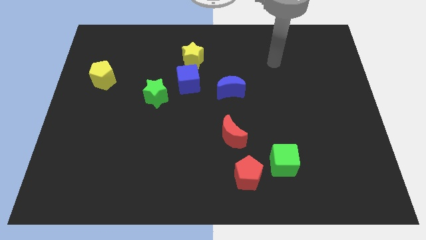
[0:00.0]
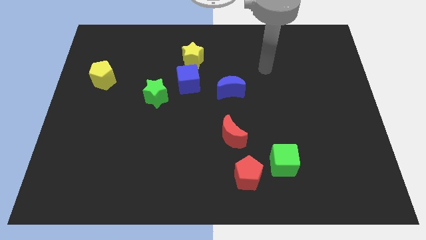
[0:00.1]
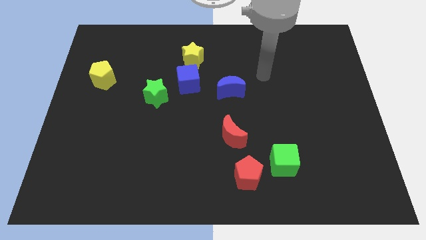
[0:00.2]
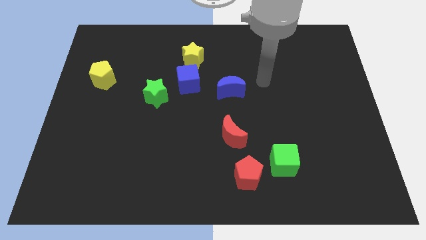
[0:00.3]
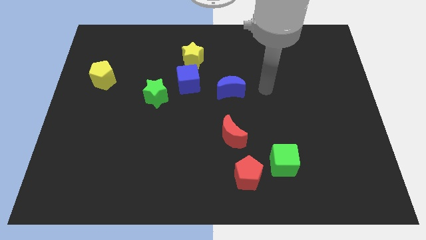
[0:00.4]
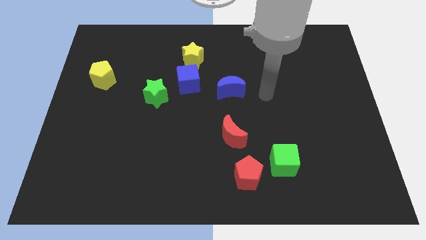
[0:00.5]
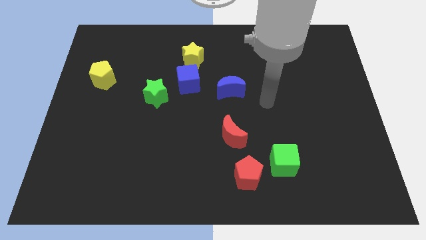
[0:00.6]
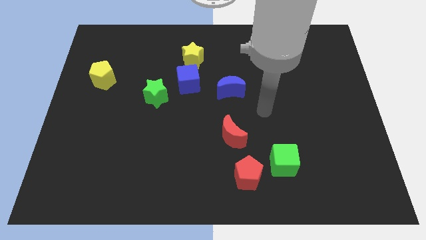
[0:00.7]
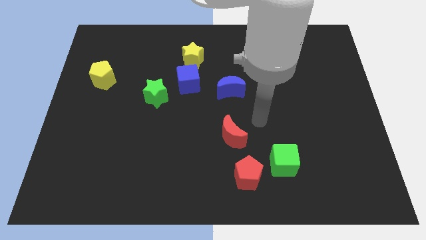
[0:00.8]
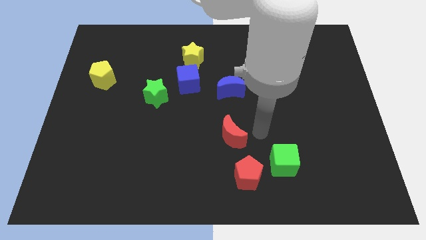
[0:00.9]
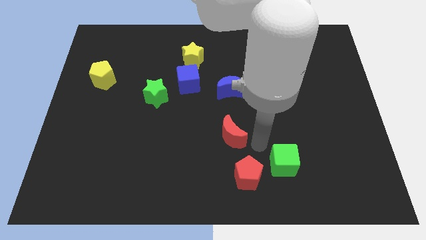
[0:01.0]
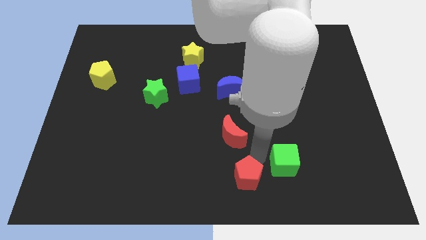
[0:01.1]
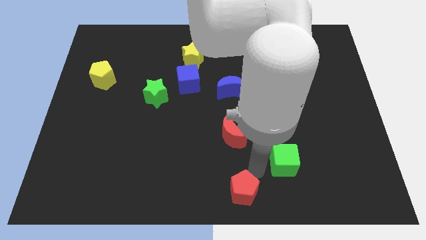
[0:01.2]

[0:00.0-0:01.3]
separate the green cube from the red pentagon

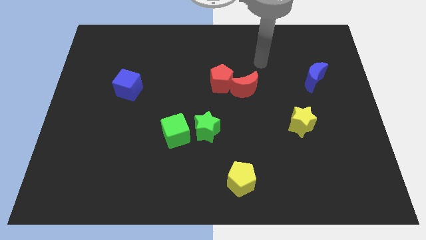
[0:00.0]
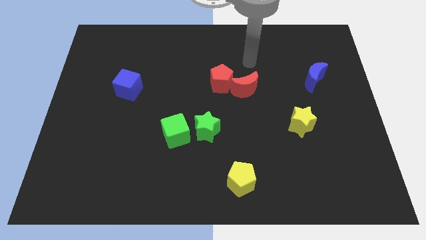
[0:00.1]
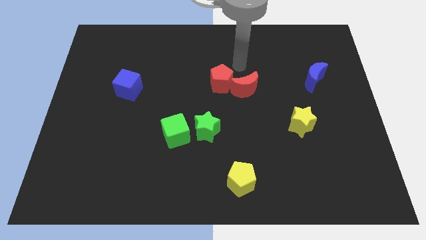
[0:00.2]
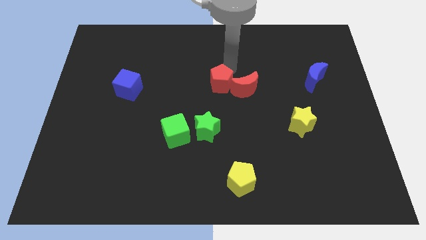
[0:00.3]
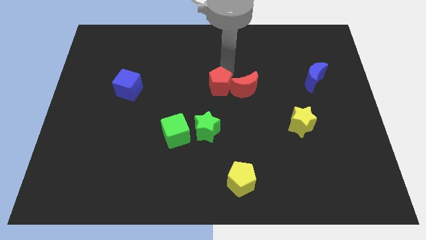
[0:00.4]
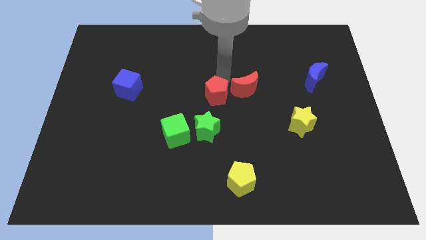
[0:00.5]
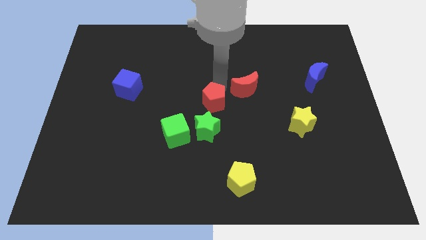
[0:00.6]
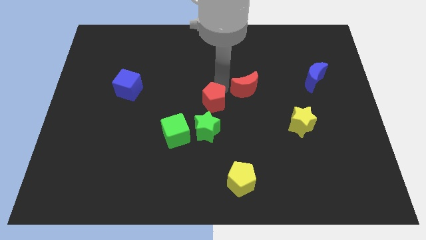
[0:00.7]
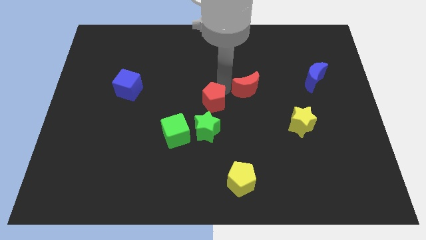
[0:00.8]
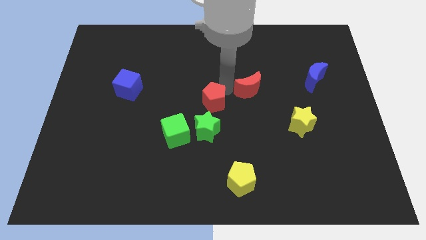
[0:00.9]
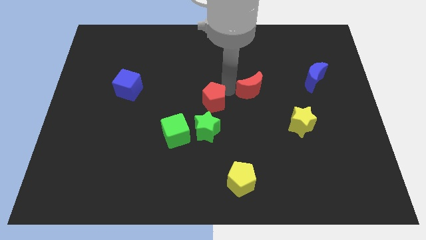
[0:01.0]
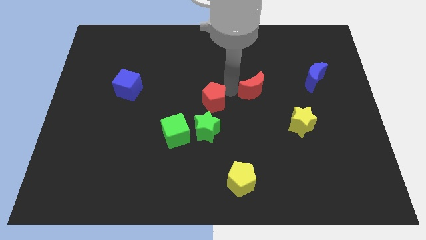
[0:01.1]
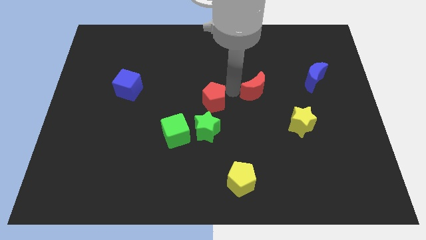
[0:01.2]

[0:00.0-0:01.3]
separate the red moon from the red pentagon

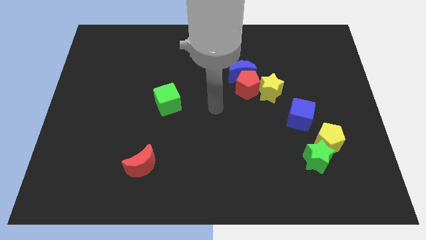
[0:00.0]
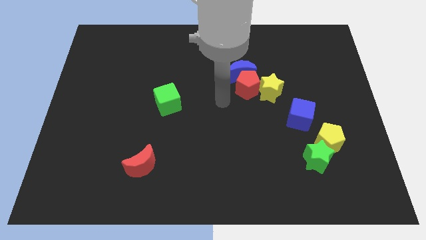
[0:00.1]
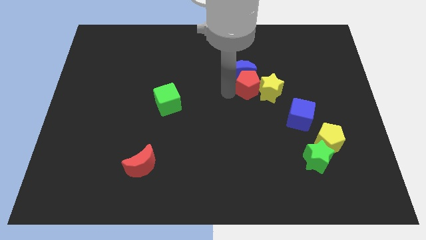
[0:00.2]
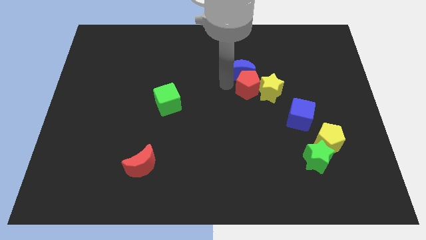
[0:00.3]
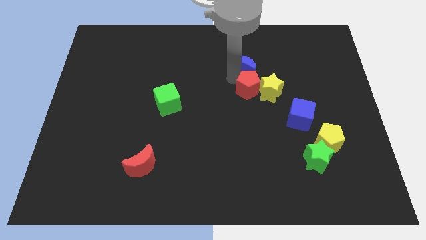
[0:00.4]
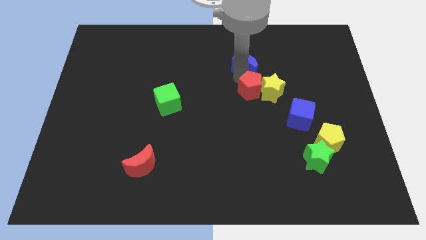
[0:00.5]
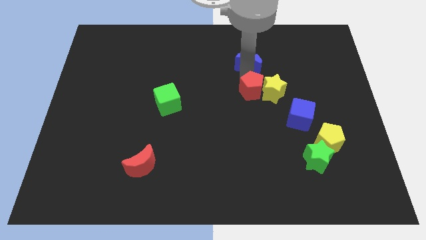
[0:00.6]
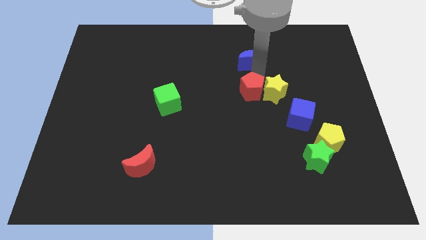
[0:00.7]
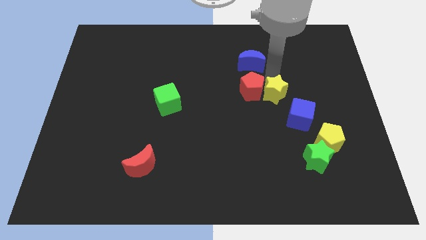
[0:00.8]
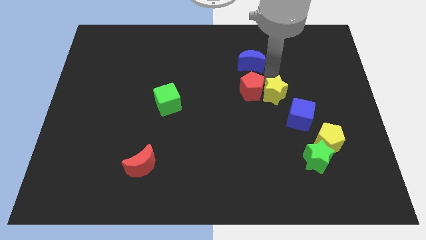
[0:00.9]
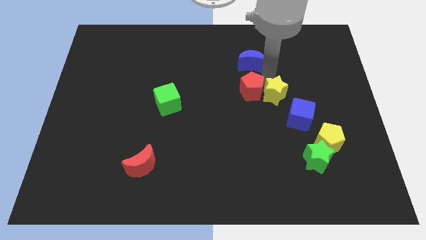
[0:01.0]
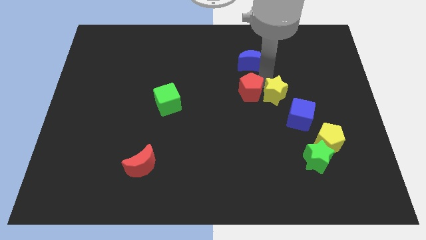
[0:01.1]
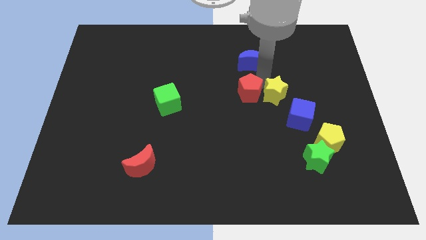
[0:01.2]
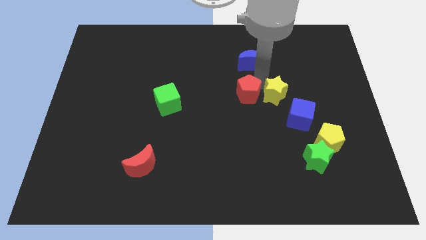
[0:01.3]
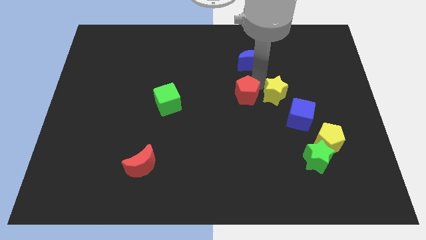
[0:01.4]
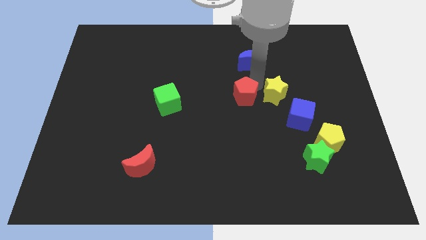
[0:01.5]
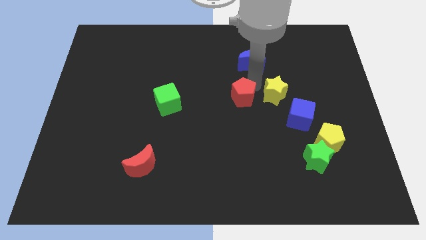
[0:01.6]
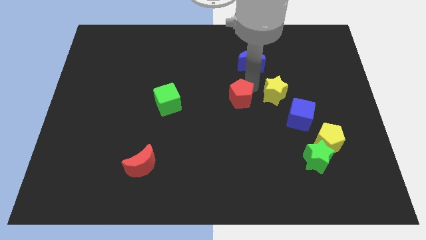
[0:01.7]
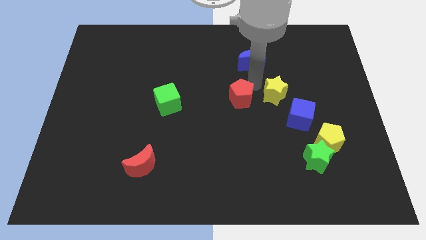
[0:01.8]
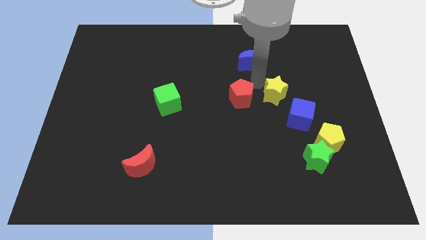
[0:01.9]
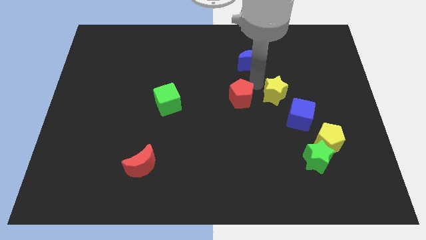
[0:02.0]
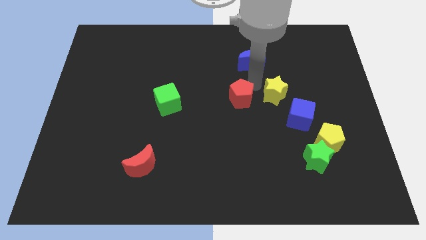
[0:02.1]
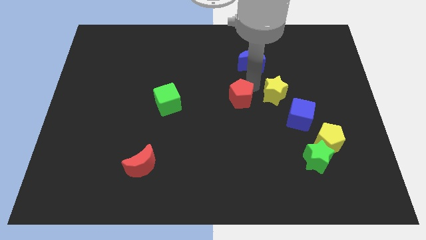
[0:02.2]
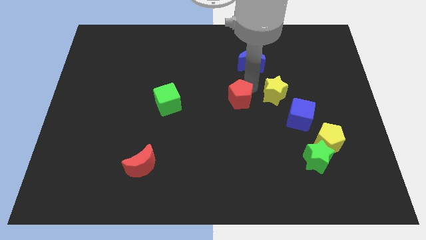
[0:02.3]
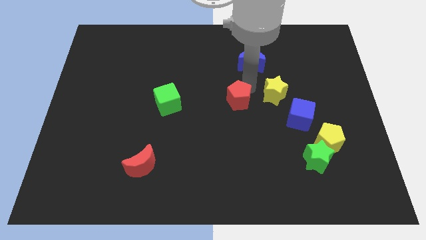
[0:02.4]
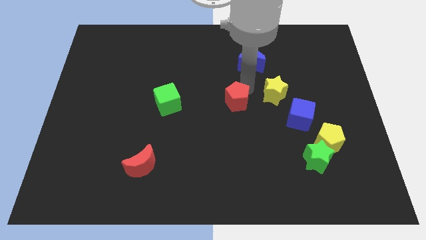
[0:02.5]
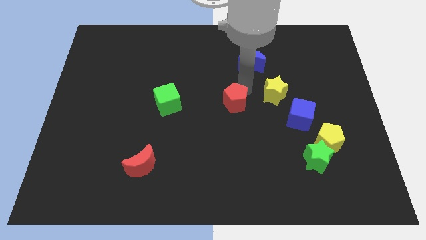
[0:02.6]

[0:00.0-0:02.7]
move the red pentagon away from the blue moon and yellow star

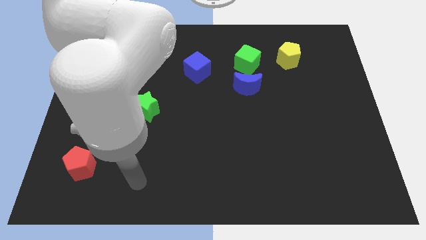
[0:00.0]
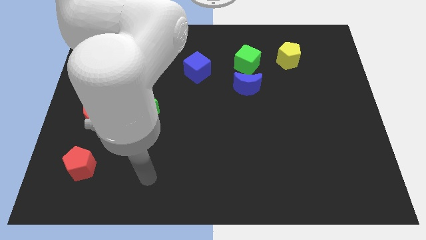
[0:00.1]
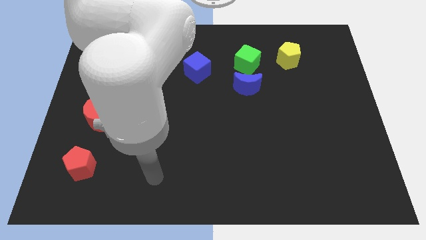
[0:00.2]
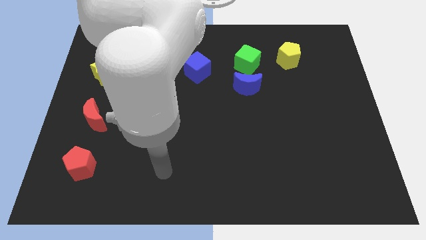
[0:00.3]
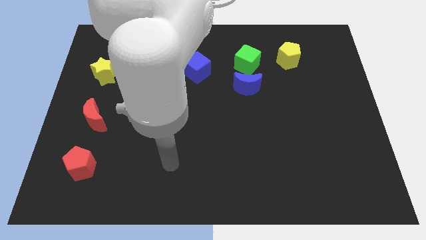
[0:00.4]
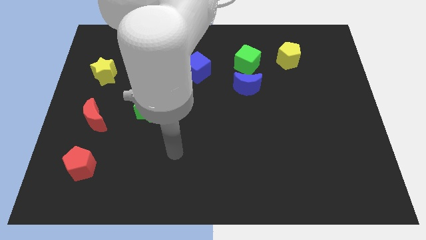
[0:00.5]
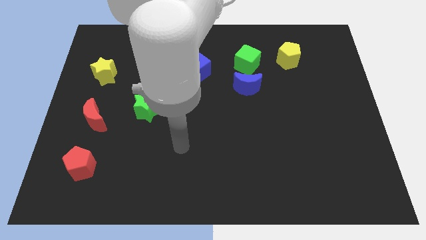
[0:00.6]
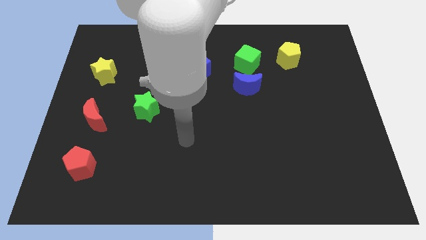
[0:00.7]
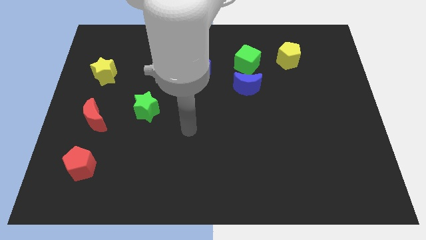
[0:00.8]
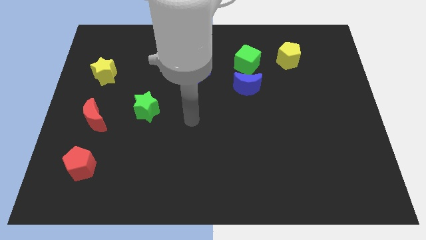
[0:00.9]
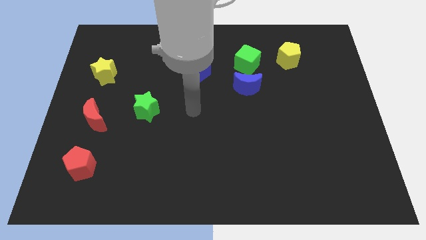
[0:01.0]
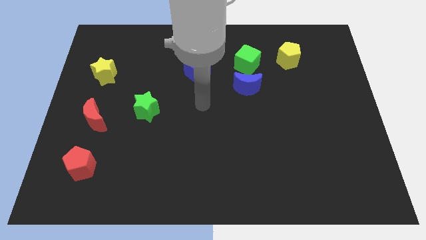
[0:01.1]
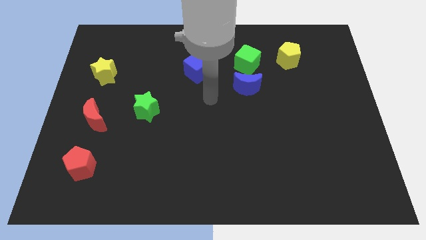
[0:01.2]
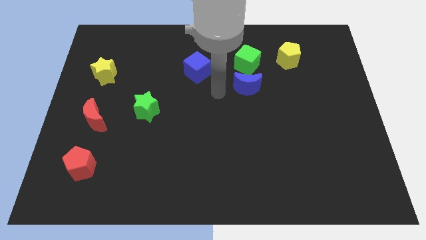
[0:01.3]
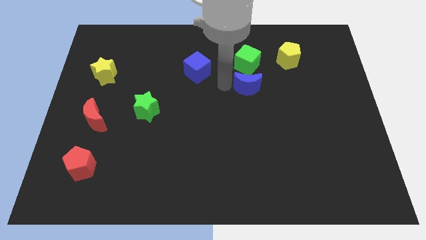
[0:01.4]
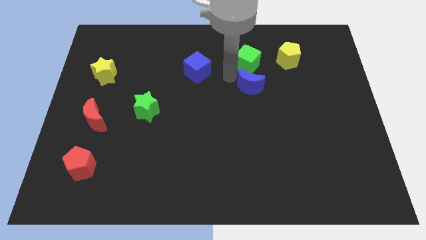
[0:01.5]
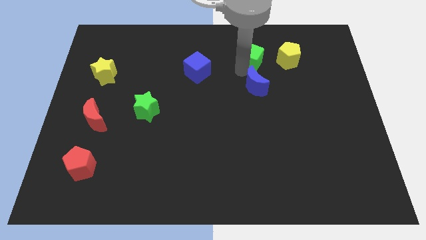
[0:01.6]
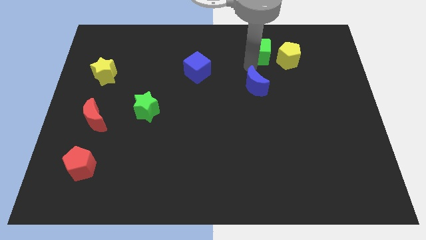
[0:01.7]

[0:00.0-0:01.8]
separate the blue moon from the green cube

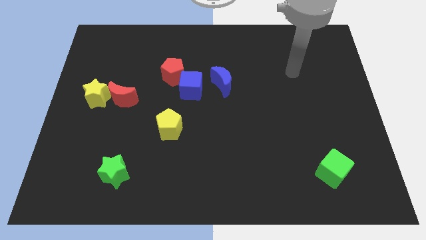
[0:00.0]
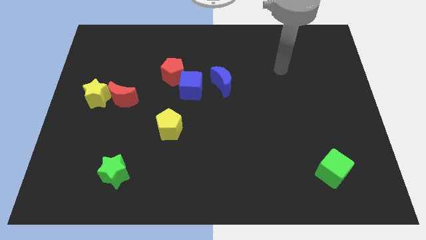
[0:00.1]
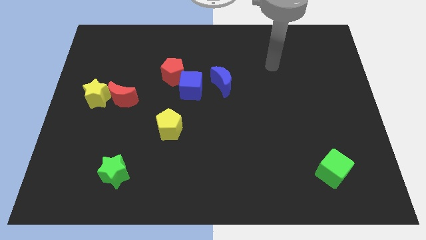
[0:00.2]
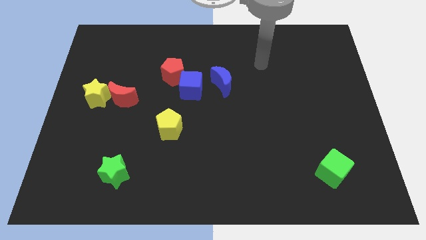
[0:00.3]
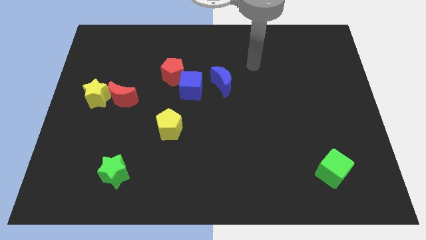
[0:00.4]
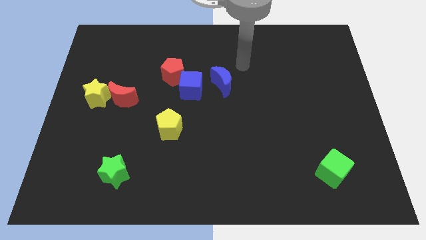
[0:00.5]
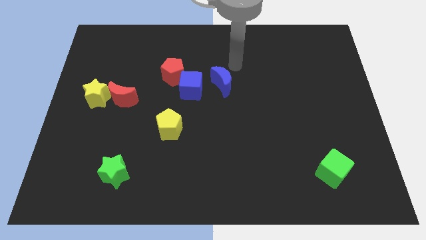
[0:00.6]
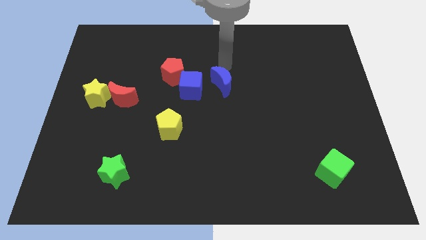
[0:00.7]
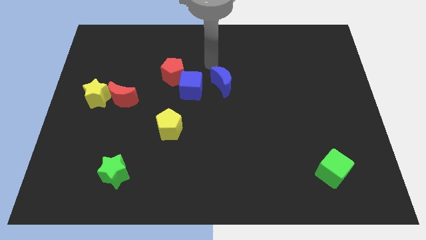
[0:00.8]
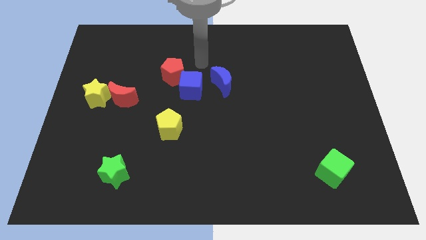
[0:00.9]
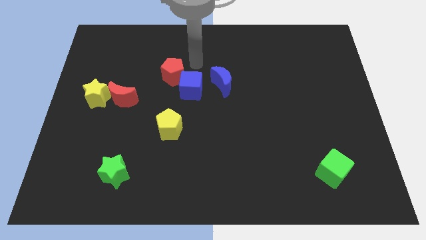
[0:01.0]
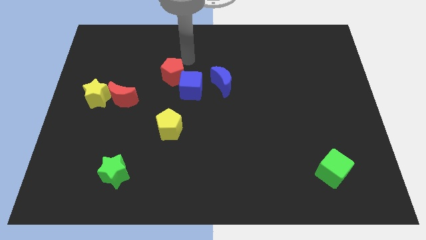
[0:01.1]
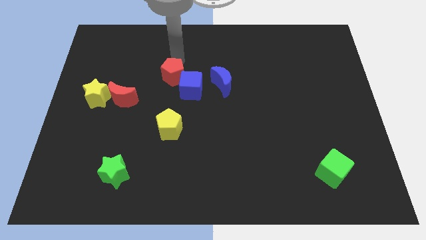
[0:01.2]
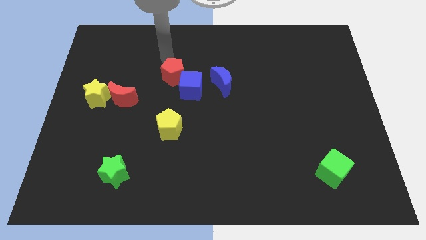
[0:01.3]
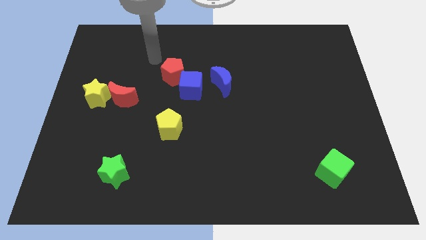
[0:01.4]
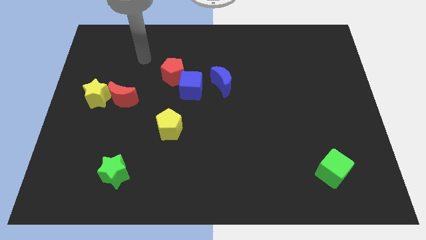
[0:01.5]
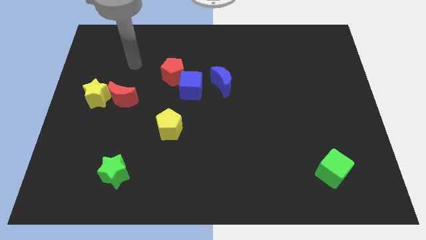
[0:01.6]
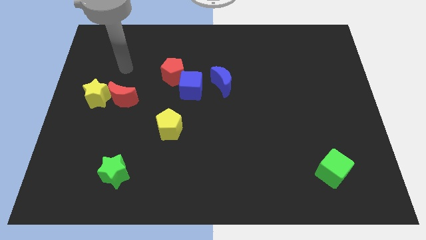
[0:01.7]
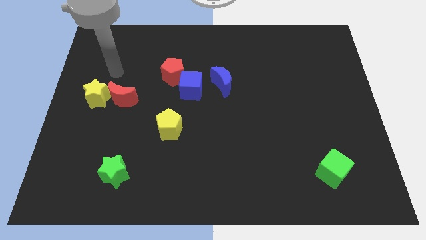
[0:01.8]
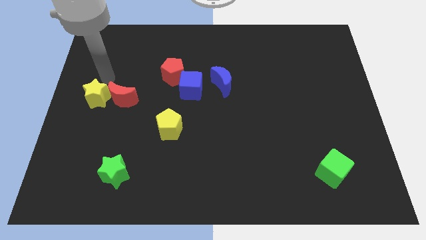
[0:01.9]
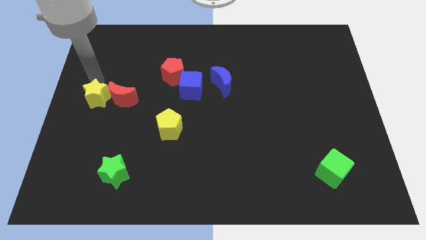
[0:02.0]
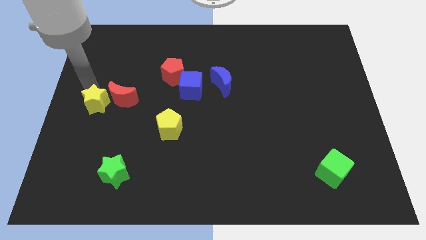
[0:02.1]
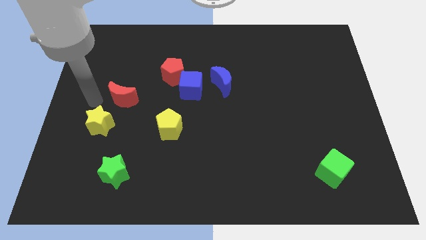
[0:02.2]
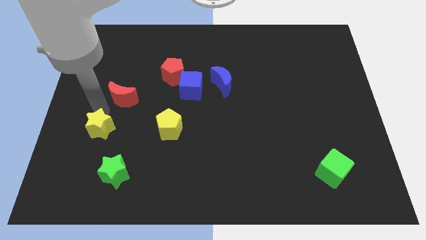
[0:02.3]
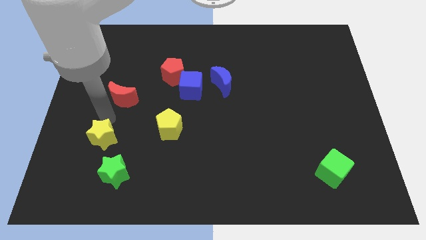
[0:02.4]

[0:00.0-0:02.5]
pull the red moon apart from the yellow star
